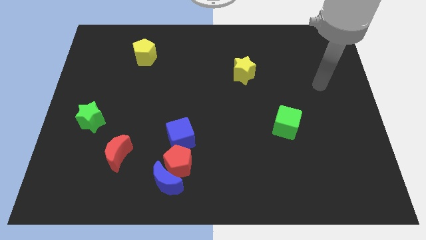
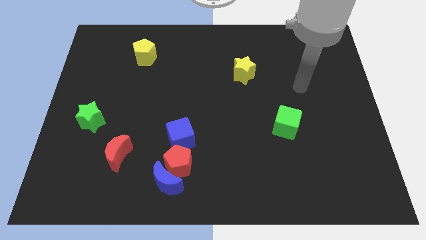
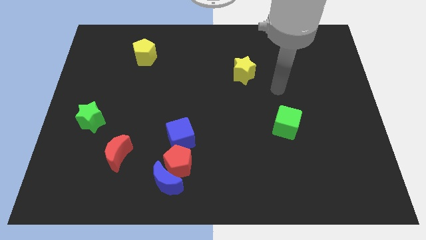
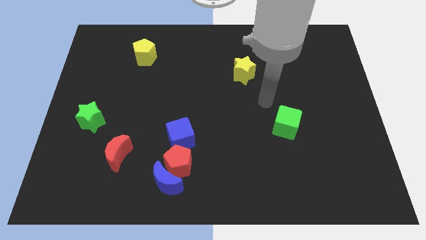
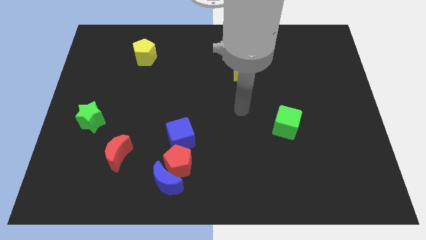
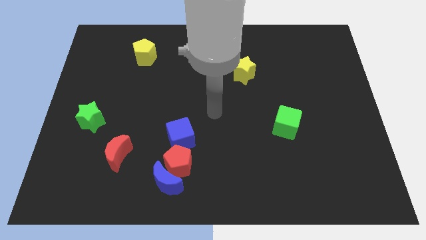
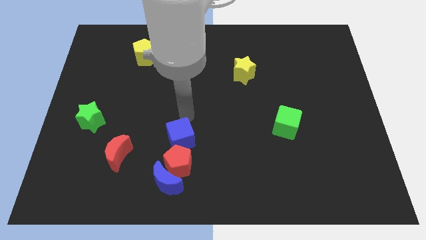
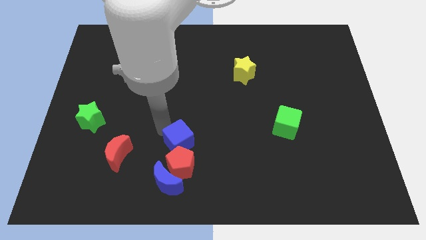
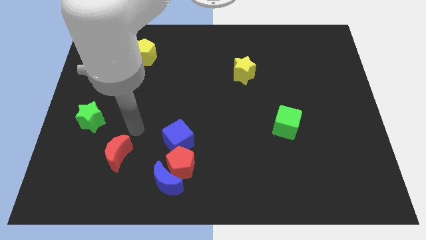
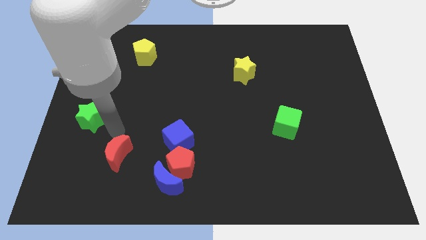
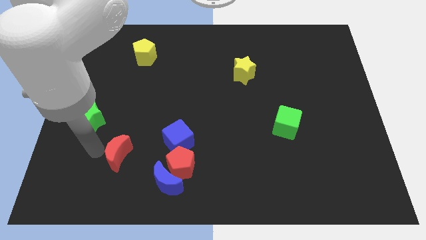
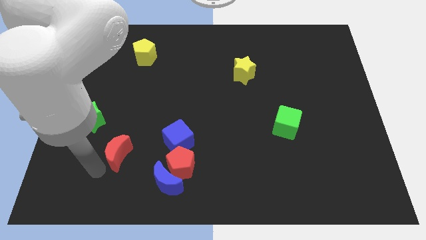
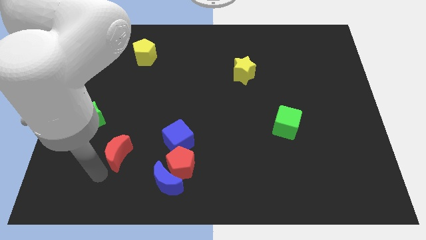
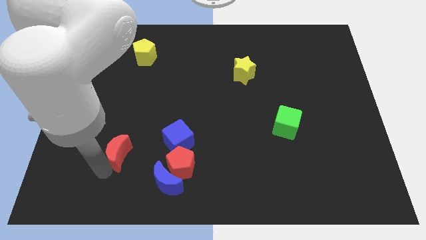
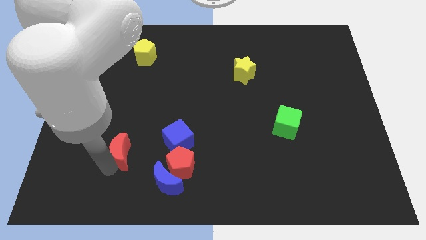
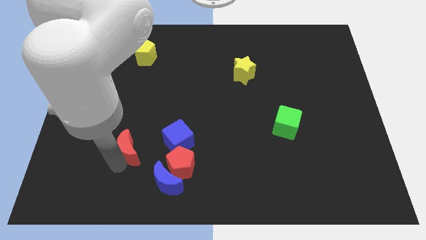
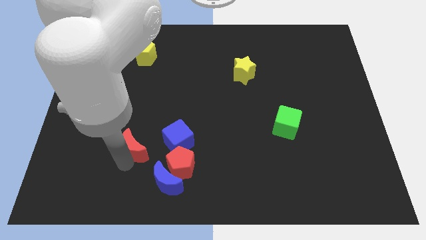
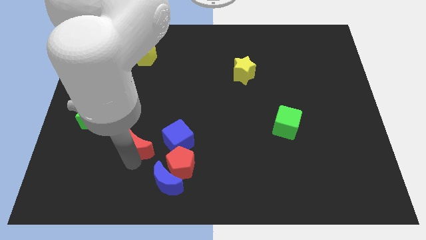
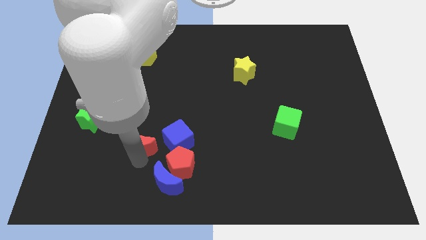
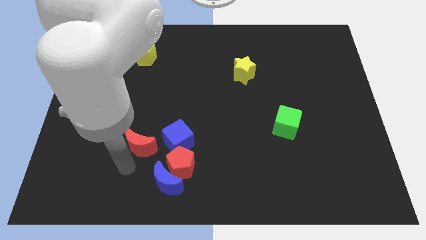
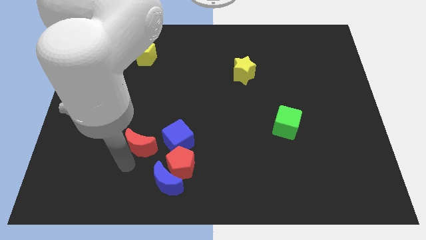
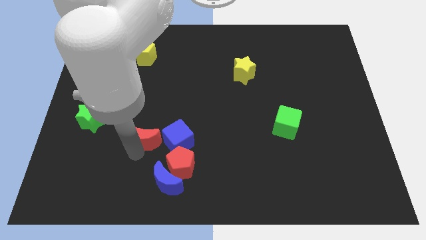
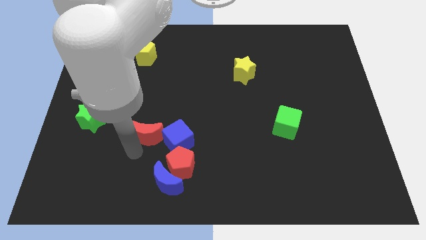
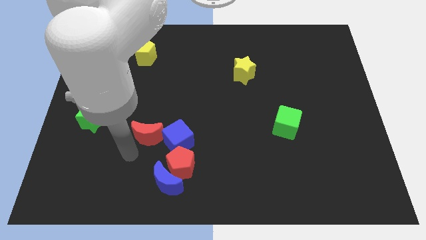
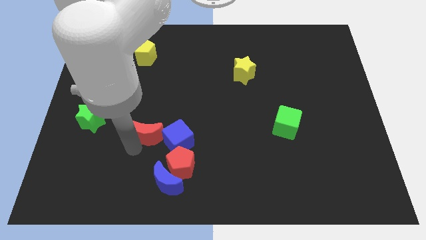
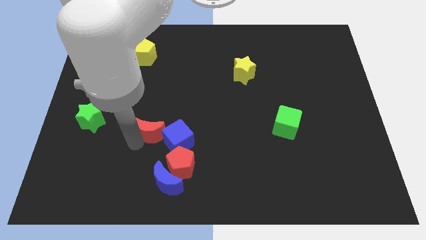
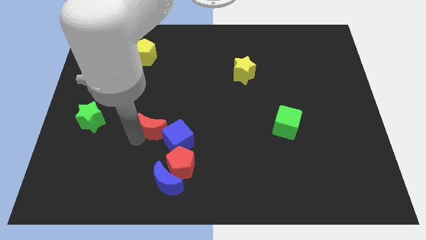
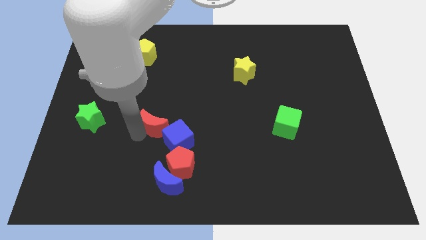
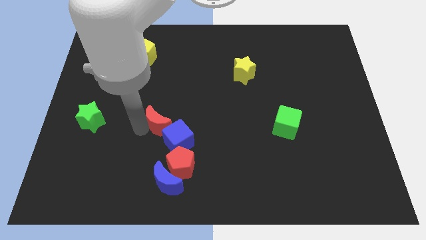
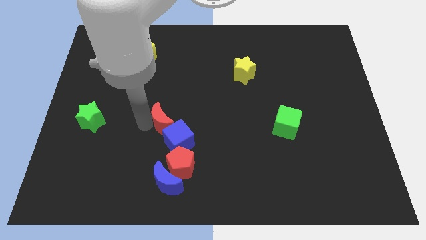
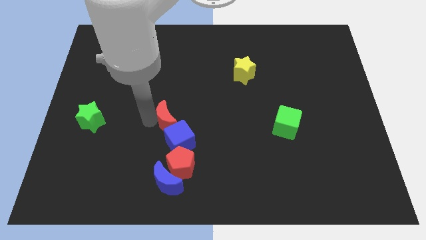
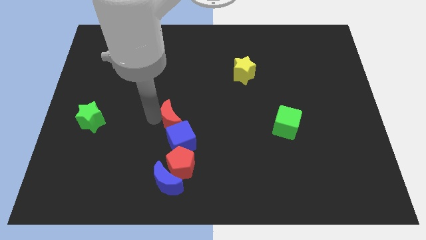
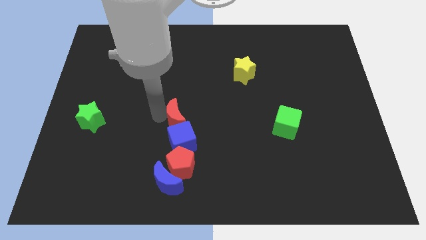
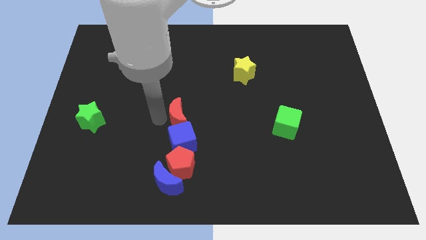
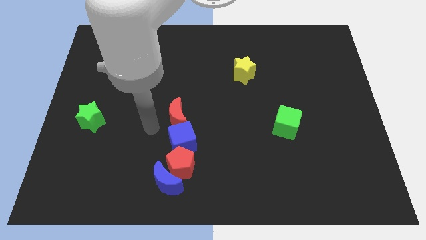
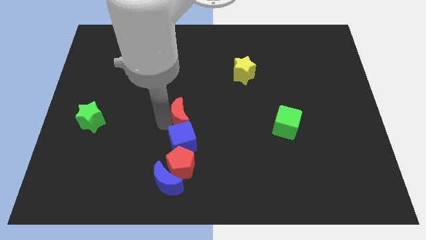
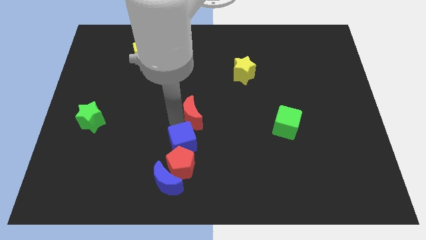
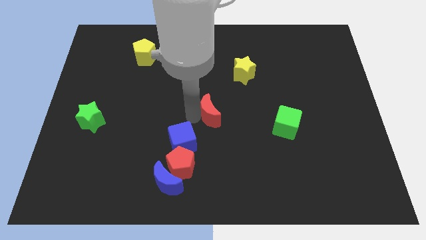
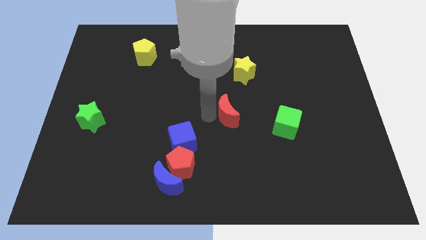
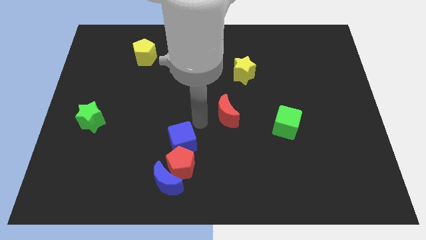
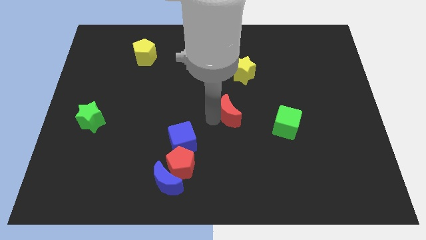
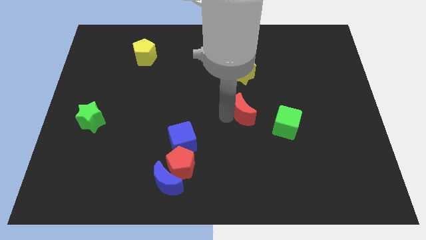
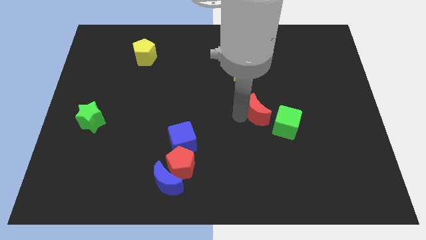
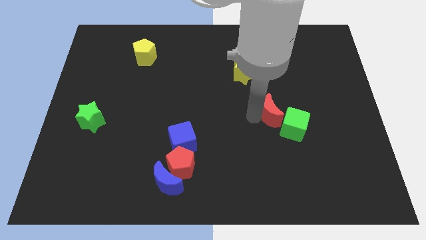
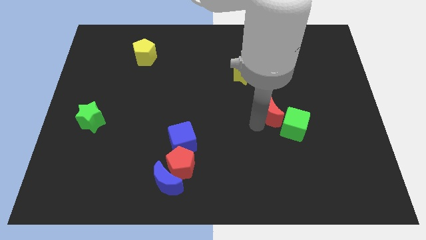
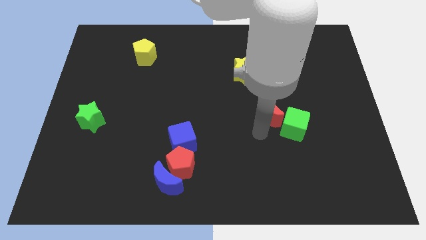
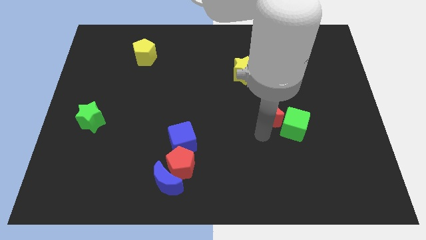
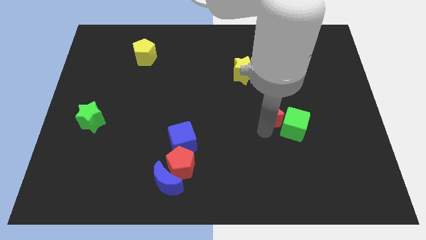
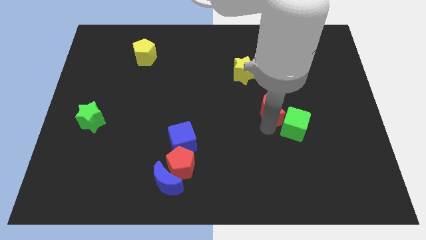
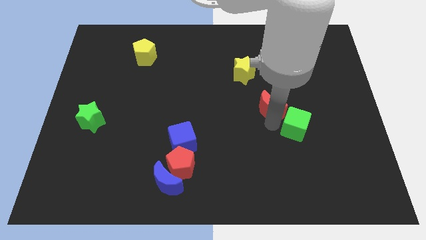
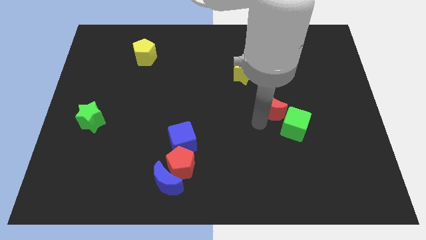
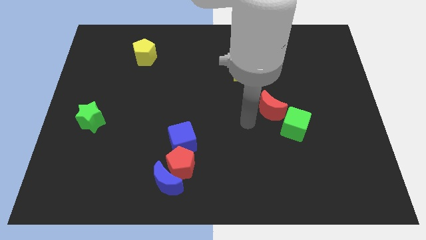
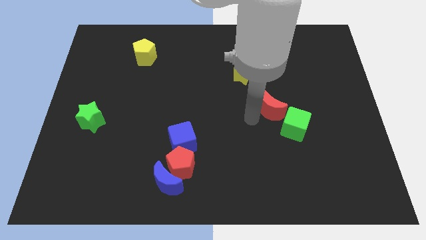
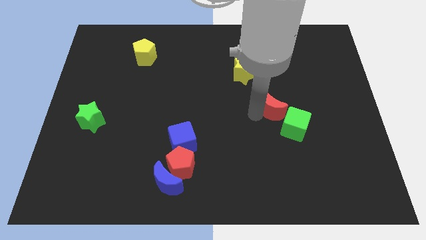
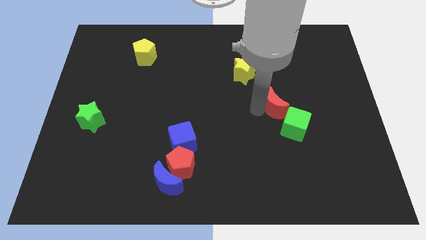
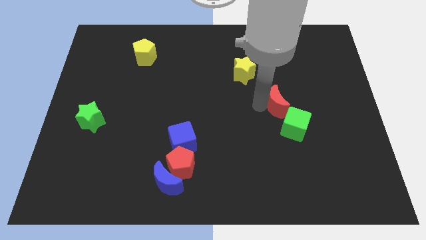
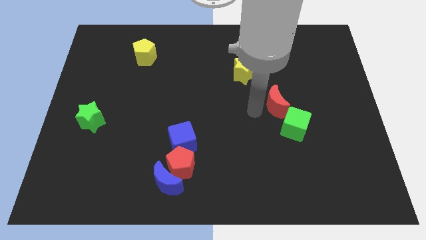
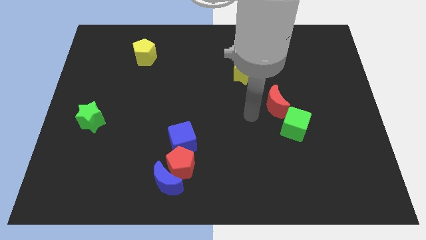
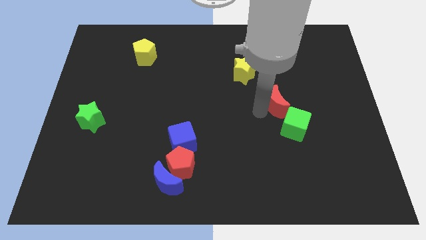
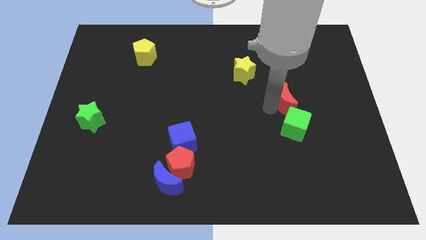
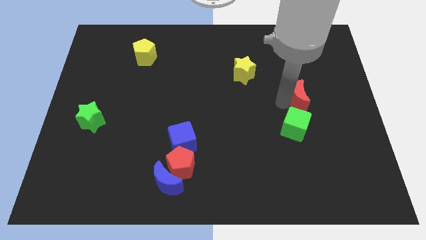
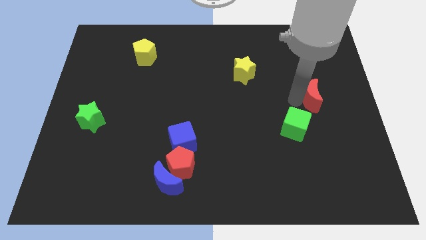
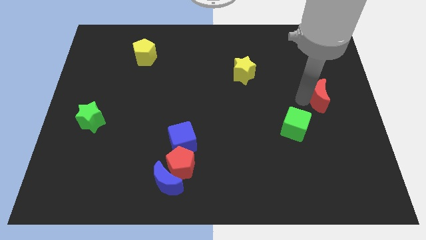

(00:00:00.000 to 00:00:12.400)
slide the red moon to the right side of the board
